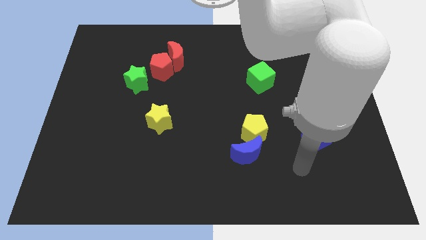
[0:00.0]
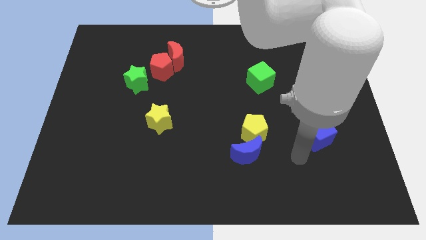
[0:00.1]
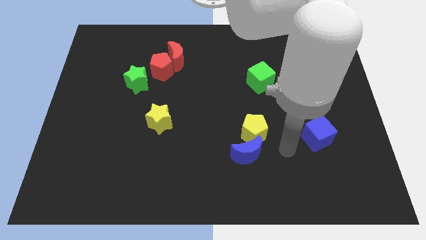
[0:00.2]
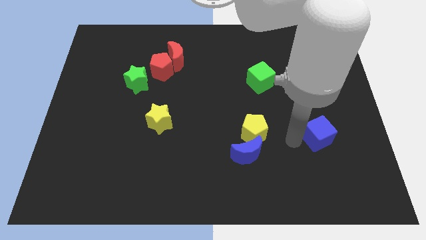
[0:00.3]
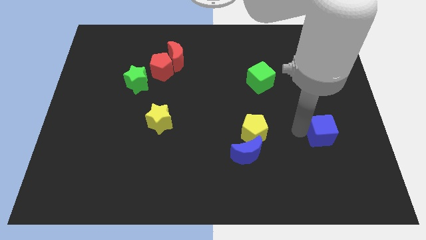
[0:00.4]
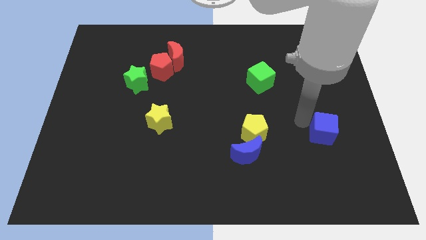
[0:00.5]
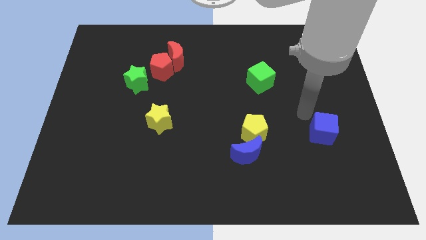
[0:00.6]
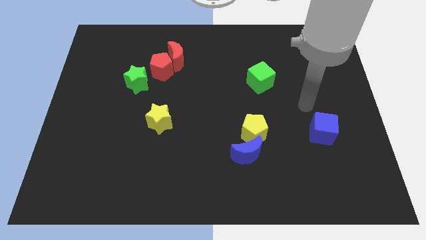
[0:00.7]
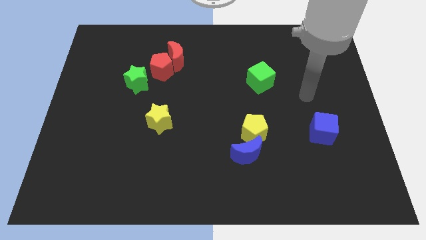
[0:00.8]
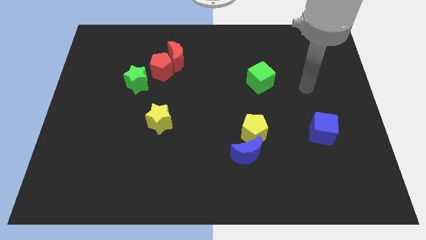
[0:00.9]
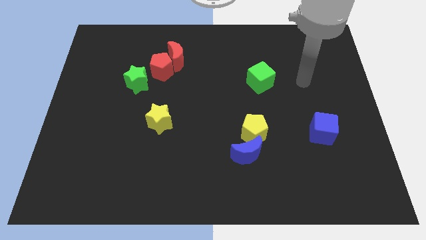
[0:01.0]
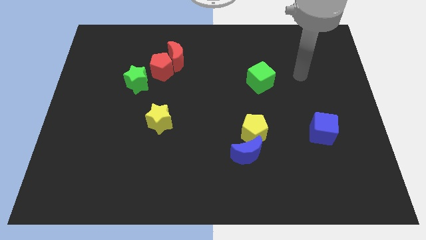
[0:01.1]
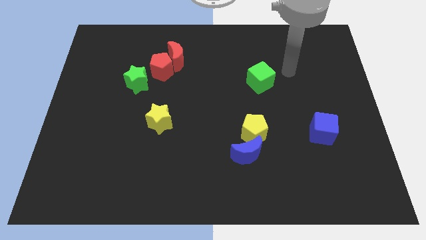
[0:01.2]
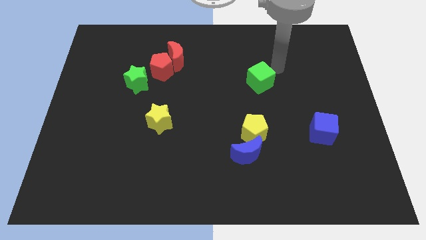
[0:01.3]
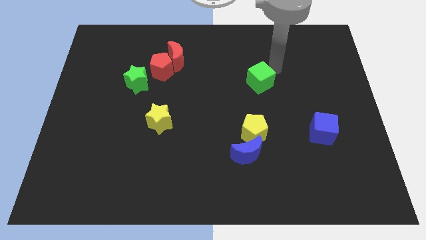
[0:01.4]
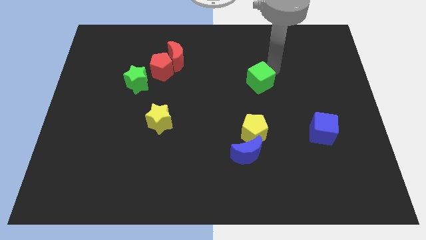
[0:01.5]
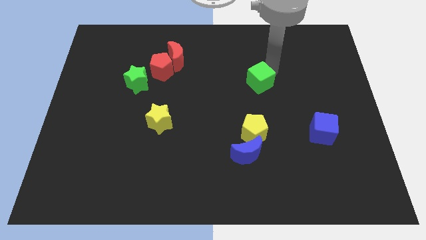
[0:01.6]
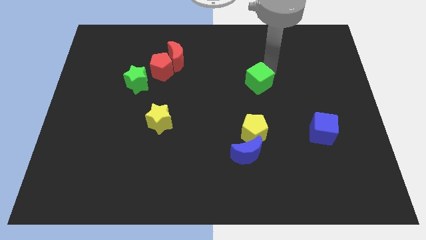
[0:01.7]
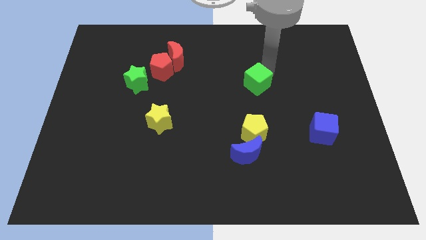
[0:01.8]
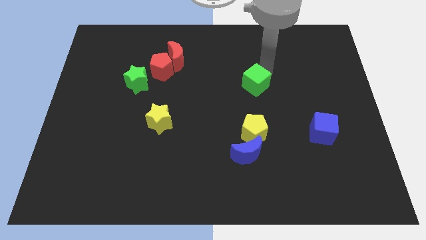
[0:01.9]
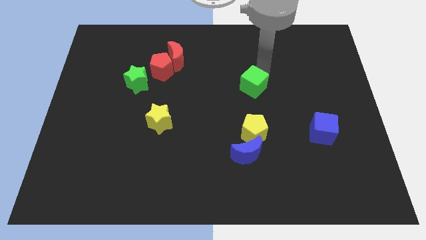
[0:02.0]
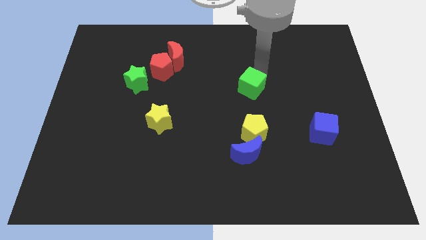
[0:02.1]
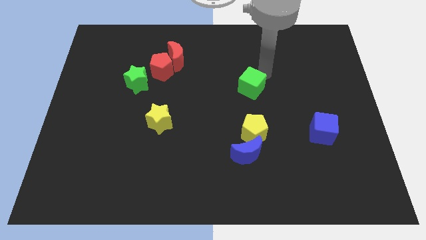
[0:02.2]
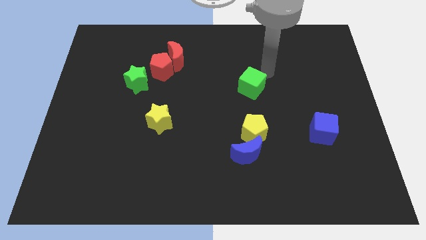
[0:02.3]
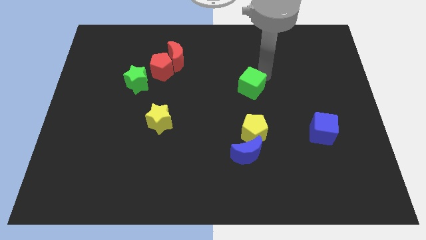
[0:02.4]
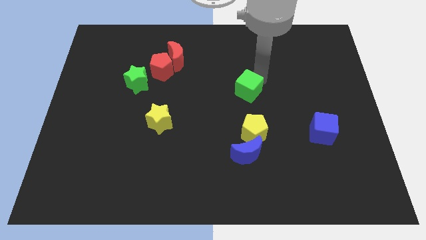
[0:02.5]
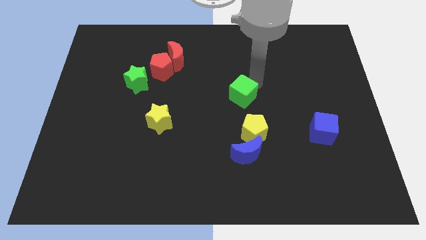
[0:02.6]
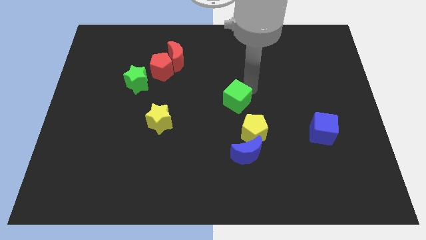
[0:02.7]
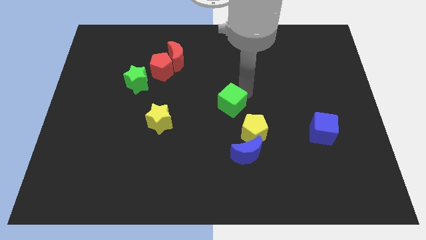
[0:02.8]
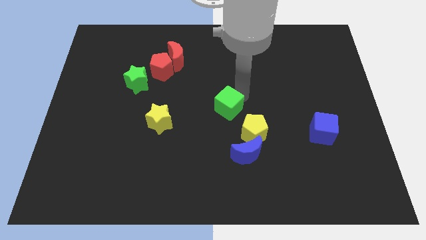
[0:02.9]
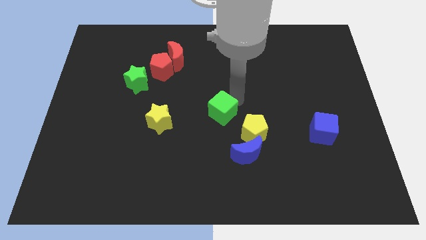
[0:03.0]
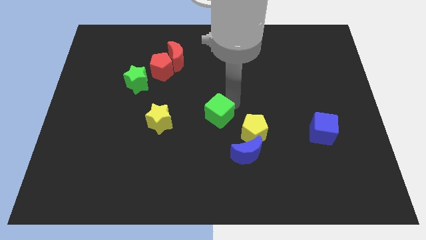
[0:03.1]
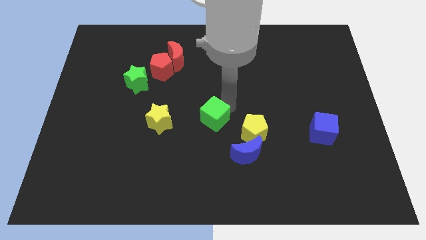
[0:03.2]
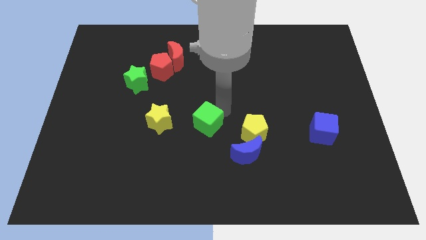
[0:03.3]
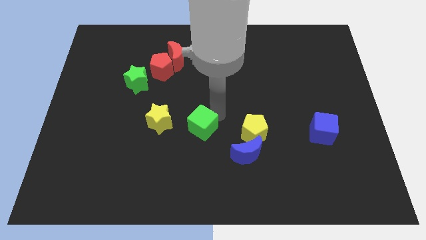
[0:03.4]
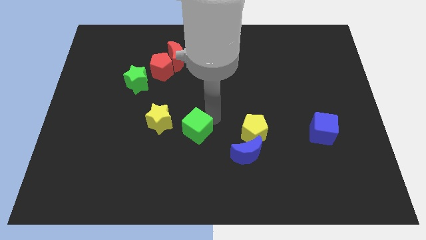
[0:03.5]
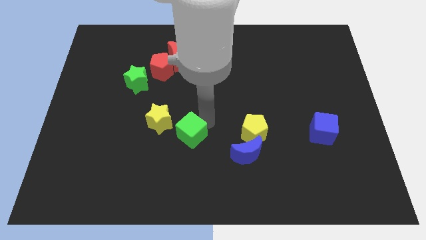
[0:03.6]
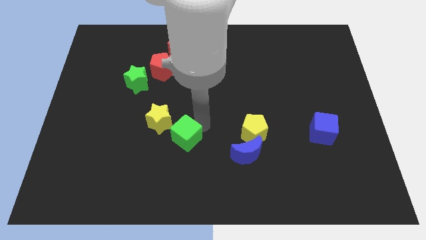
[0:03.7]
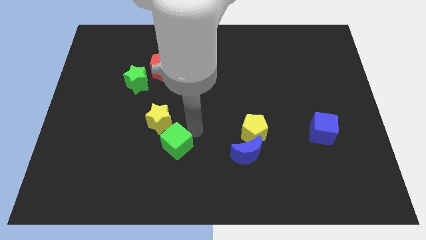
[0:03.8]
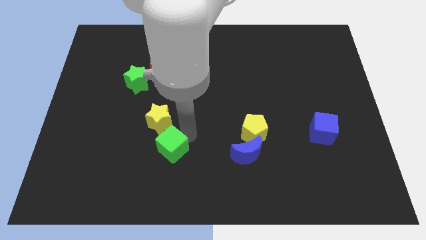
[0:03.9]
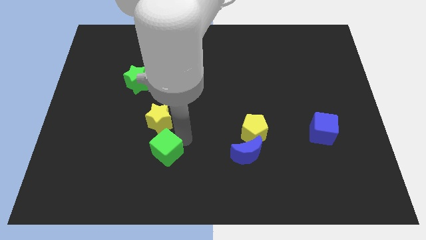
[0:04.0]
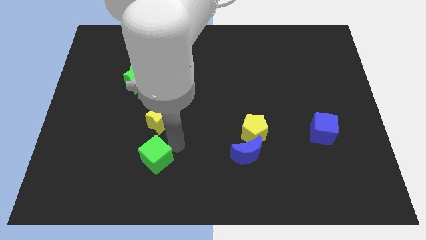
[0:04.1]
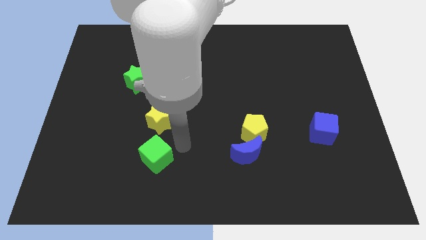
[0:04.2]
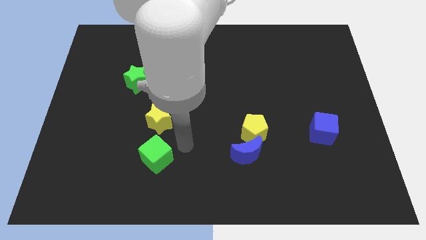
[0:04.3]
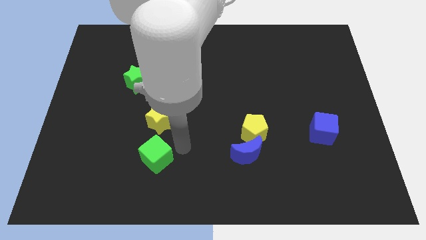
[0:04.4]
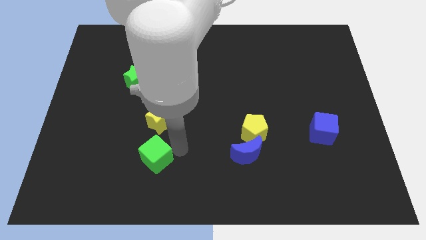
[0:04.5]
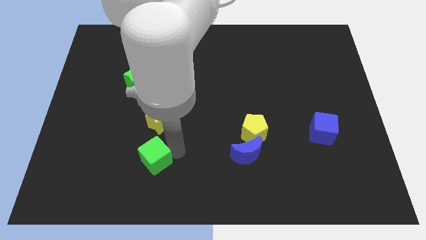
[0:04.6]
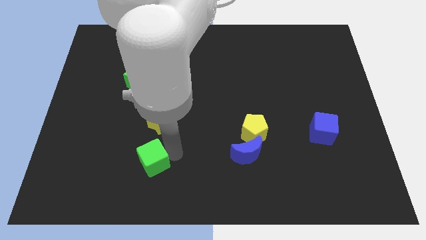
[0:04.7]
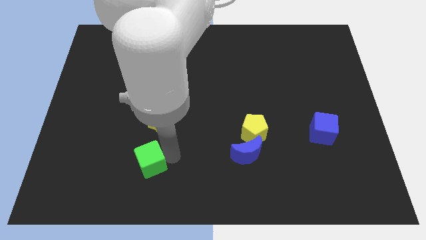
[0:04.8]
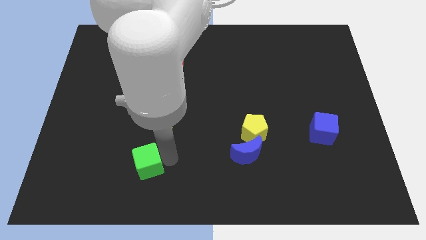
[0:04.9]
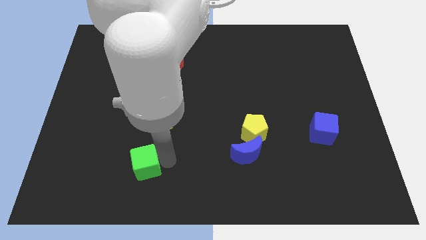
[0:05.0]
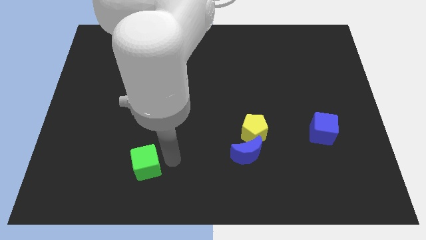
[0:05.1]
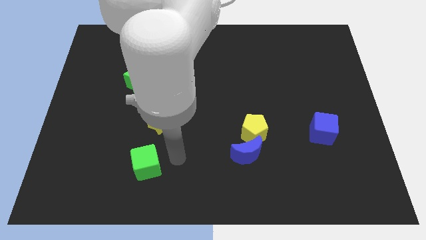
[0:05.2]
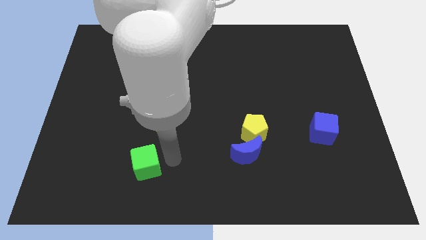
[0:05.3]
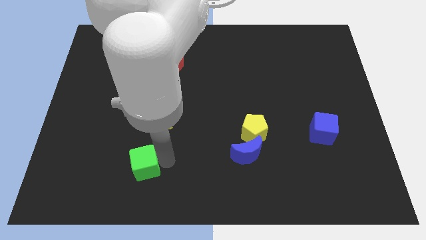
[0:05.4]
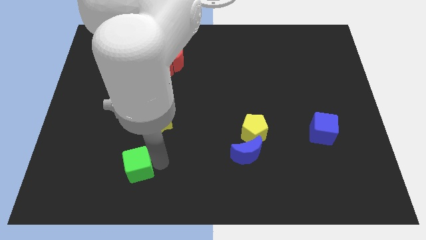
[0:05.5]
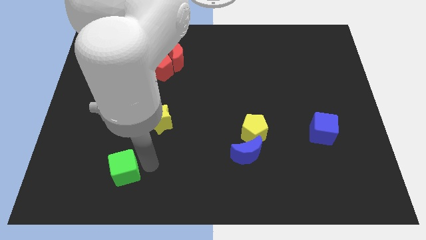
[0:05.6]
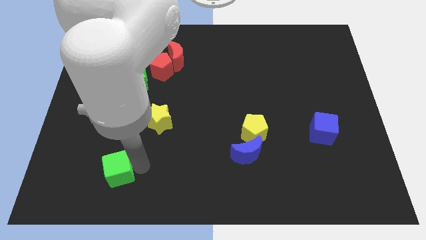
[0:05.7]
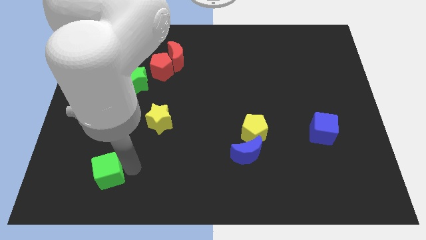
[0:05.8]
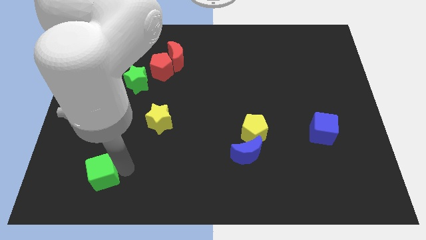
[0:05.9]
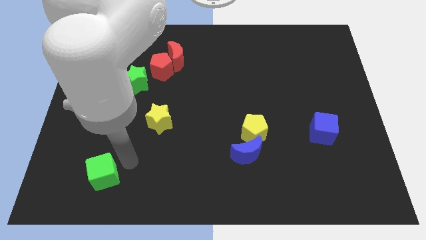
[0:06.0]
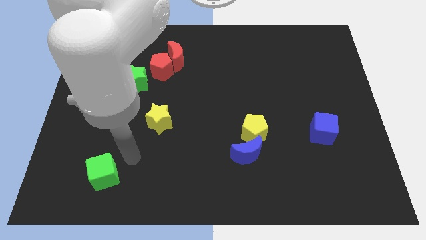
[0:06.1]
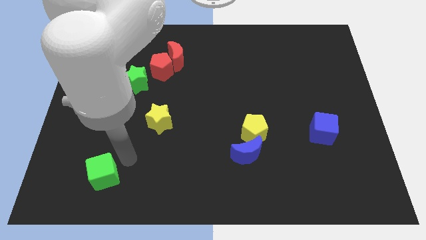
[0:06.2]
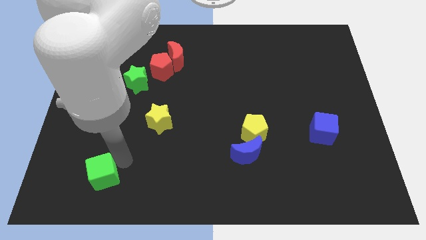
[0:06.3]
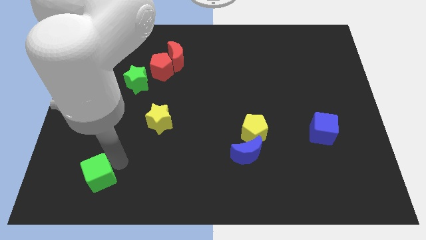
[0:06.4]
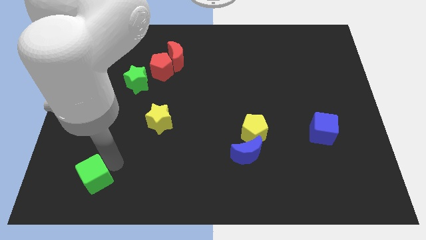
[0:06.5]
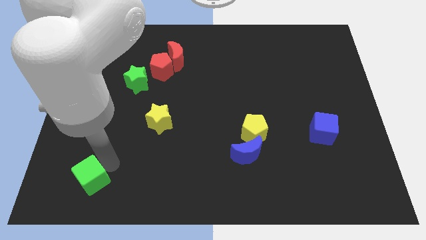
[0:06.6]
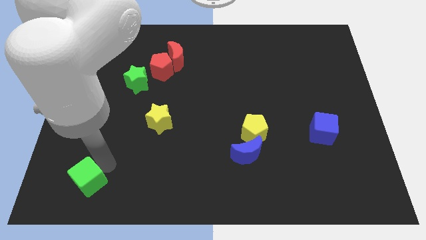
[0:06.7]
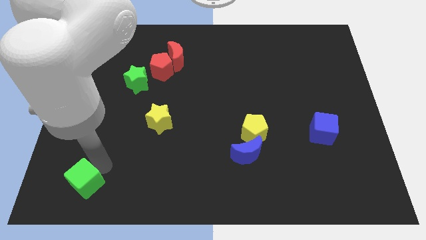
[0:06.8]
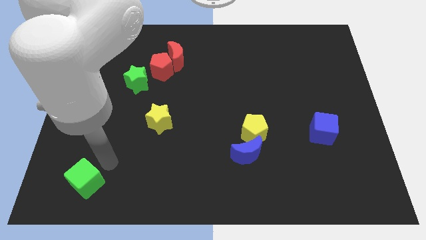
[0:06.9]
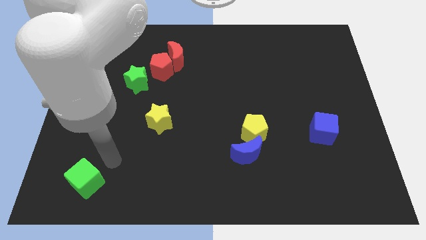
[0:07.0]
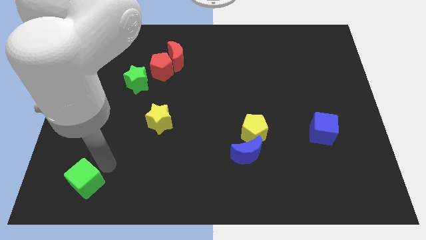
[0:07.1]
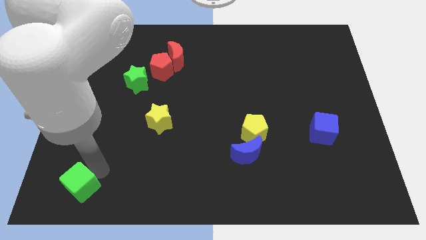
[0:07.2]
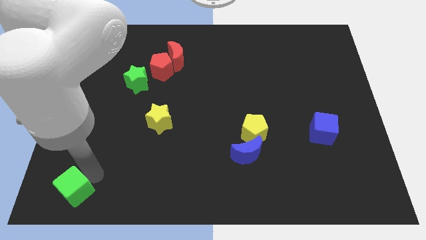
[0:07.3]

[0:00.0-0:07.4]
put the green cube to the lower left corner
